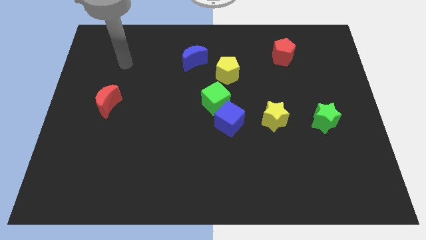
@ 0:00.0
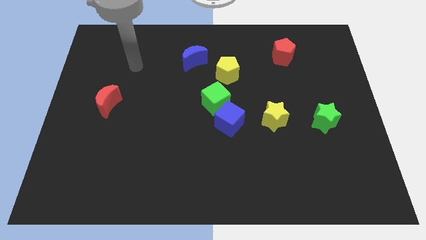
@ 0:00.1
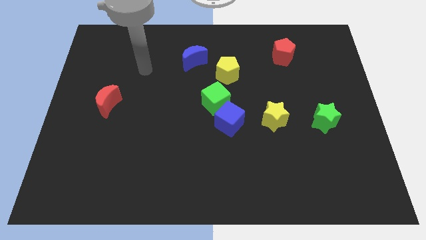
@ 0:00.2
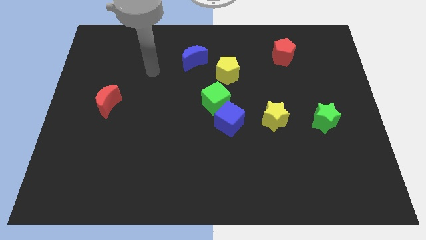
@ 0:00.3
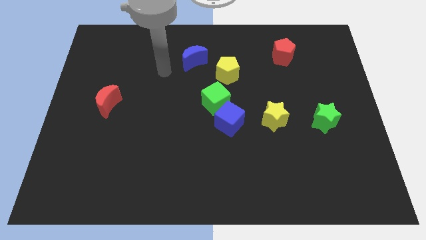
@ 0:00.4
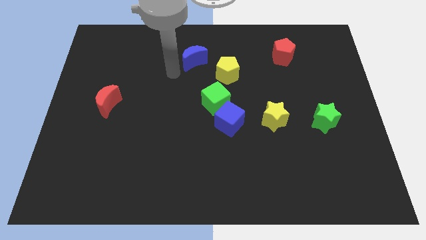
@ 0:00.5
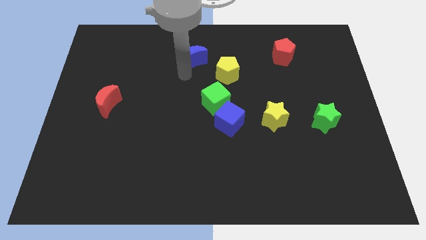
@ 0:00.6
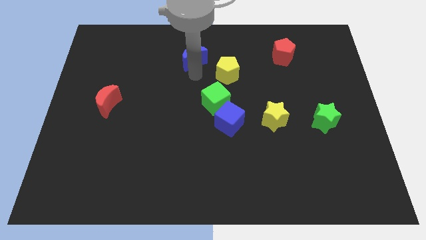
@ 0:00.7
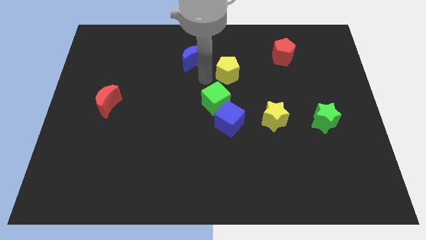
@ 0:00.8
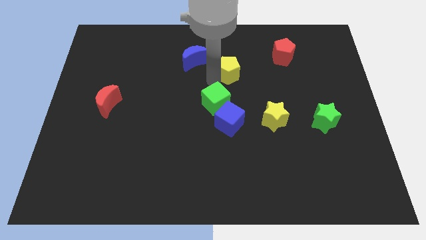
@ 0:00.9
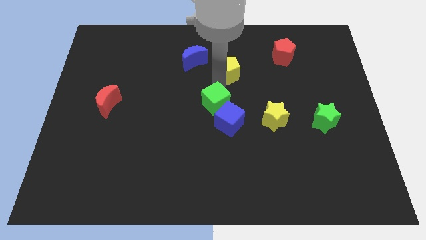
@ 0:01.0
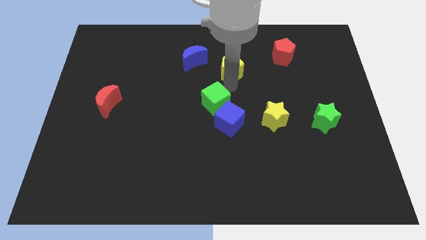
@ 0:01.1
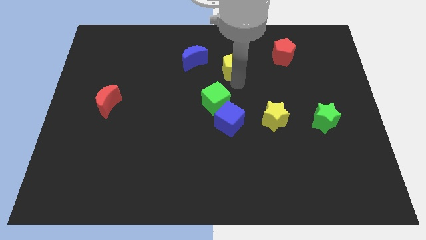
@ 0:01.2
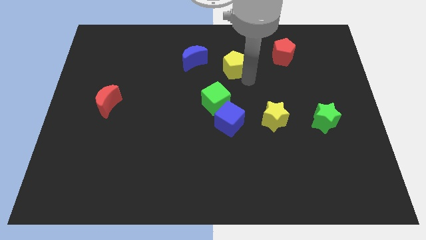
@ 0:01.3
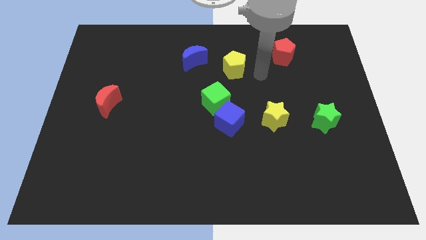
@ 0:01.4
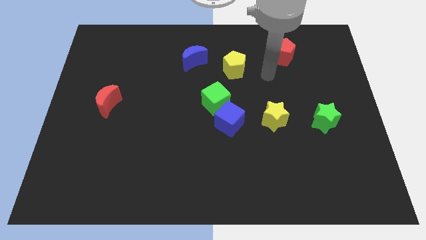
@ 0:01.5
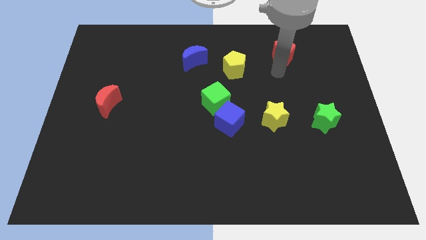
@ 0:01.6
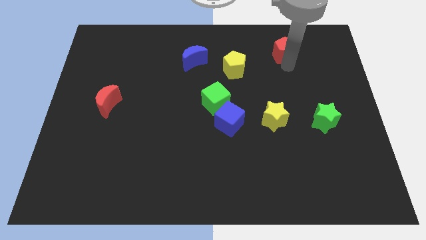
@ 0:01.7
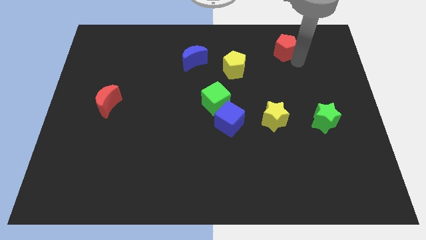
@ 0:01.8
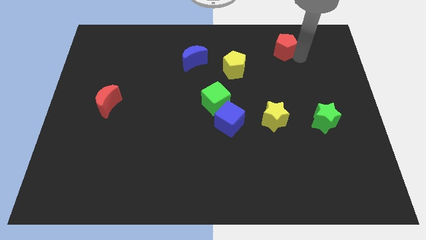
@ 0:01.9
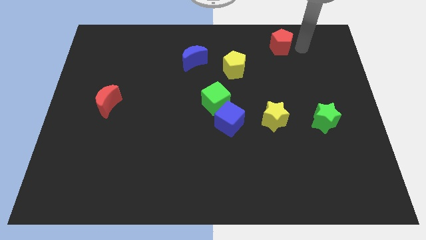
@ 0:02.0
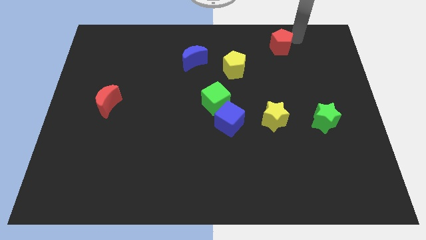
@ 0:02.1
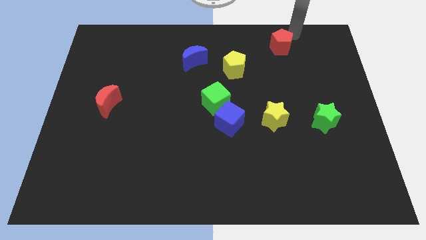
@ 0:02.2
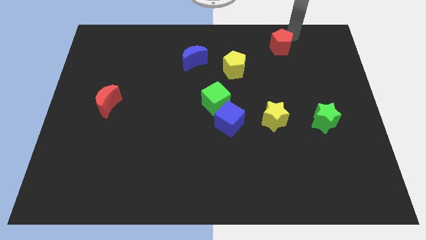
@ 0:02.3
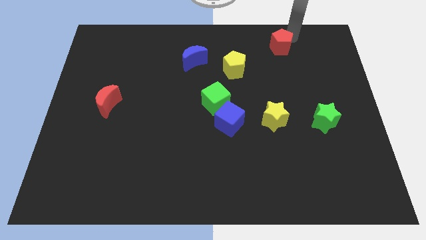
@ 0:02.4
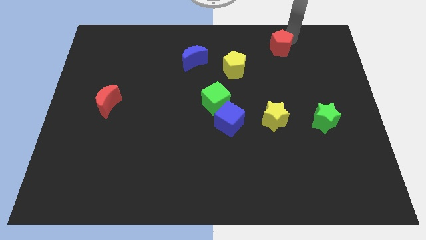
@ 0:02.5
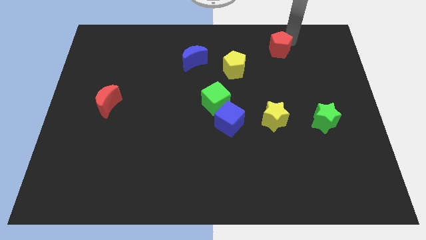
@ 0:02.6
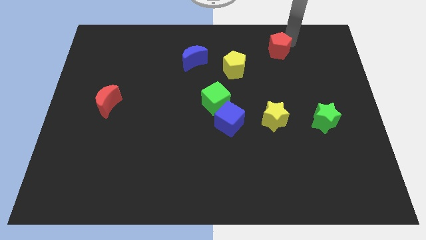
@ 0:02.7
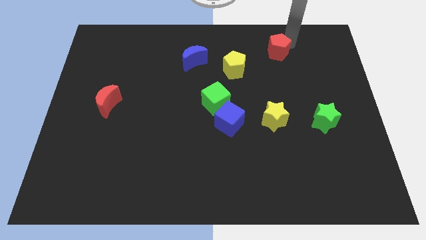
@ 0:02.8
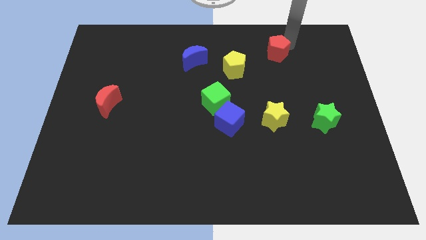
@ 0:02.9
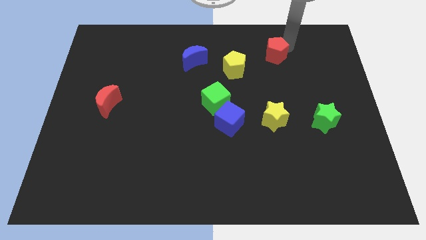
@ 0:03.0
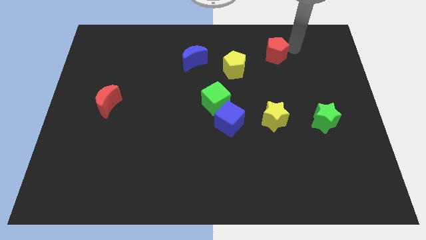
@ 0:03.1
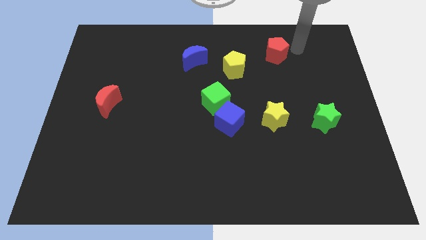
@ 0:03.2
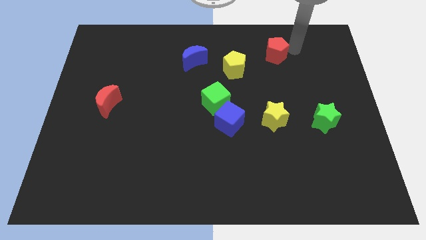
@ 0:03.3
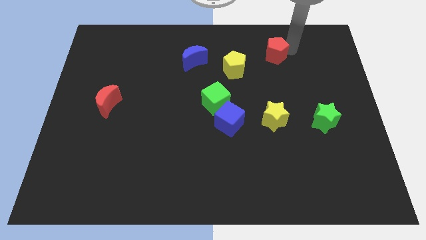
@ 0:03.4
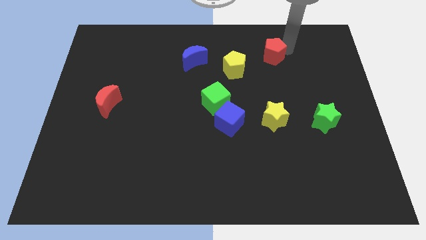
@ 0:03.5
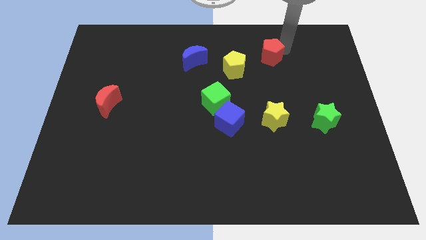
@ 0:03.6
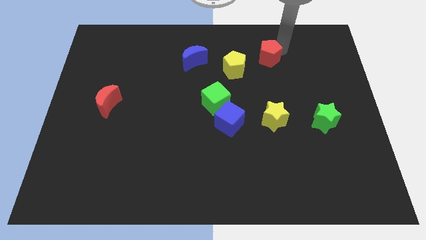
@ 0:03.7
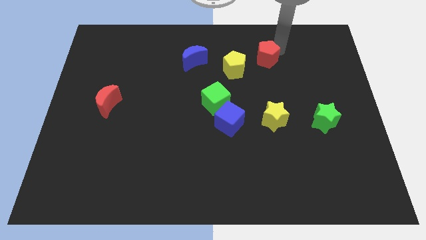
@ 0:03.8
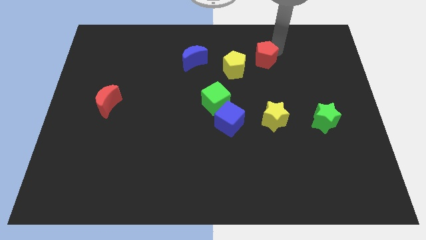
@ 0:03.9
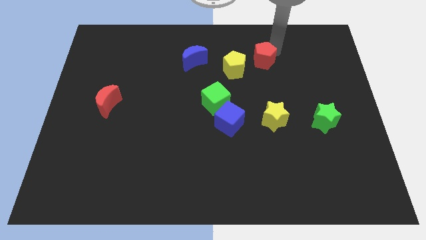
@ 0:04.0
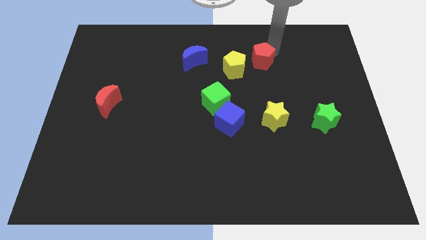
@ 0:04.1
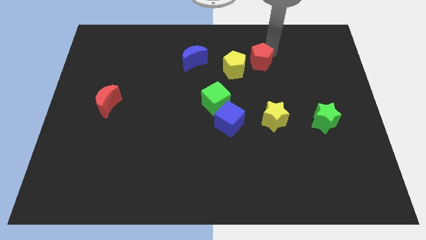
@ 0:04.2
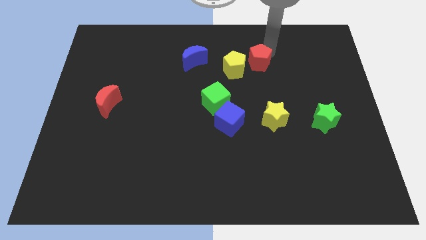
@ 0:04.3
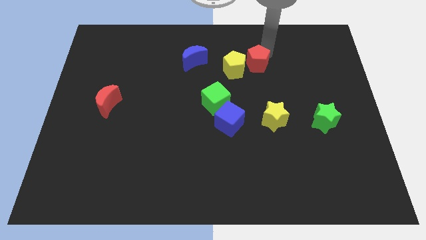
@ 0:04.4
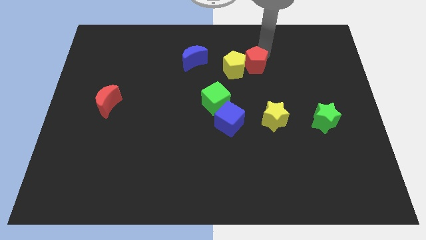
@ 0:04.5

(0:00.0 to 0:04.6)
slide the red pentagon a little left

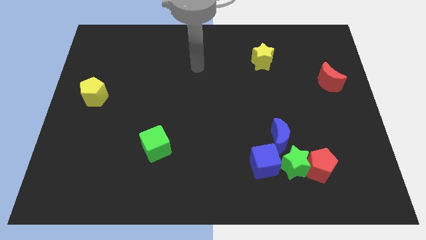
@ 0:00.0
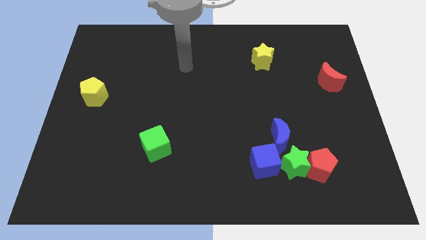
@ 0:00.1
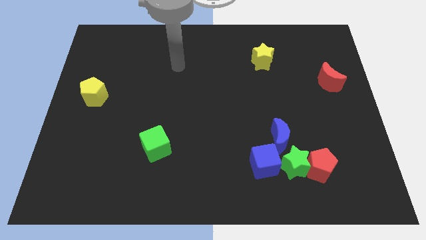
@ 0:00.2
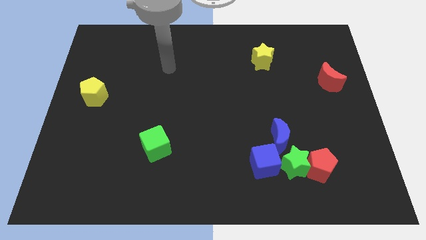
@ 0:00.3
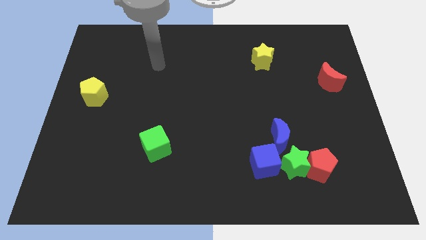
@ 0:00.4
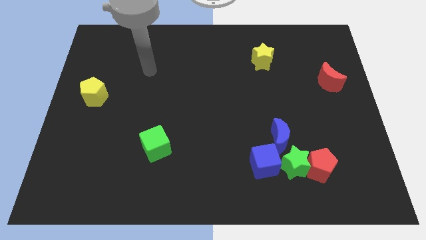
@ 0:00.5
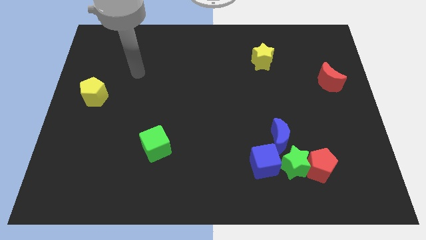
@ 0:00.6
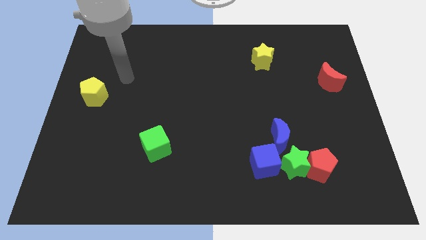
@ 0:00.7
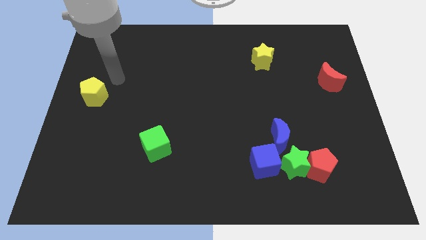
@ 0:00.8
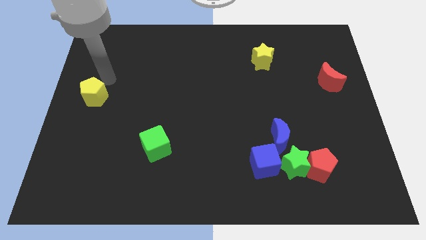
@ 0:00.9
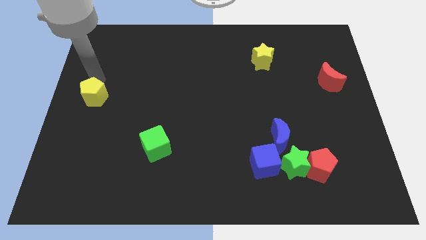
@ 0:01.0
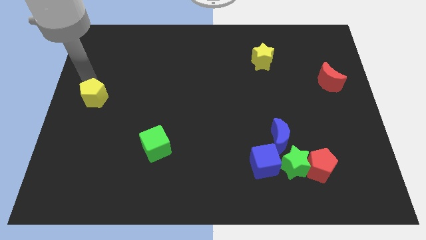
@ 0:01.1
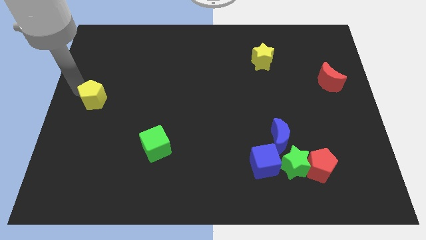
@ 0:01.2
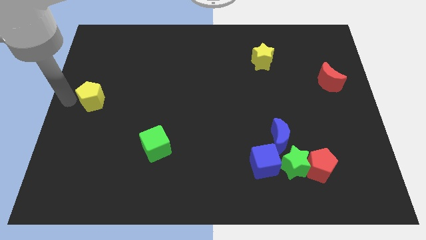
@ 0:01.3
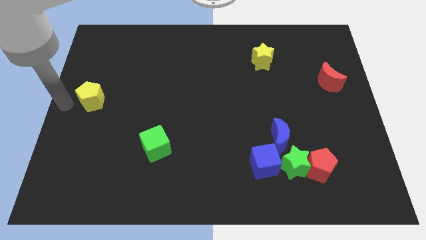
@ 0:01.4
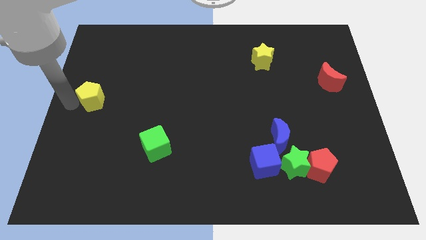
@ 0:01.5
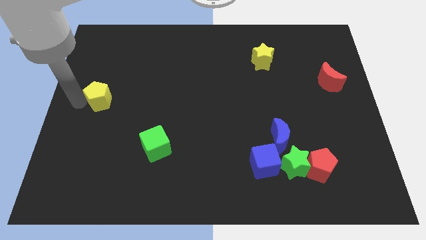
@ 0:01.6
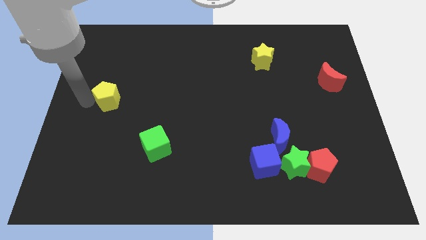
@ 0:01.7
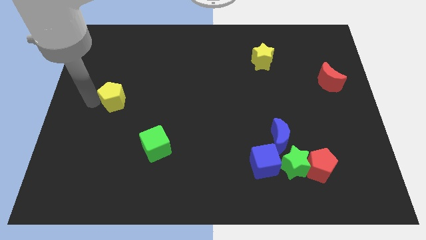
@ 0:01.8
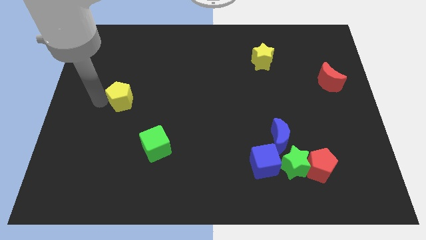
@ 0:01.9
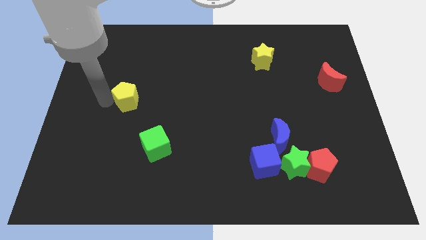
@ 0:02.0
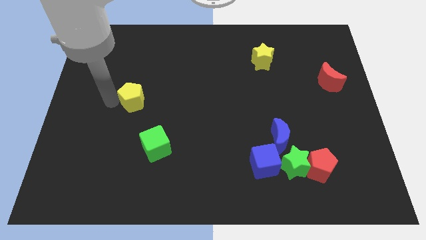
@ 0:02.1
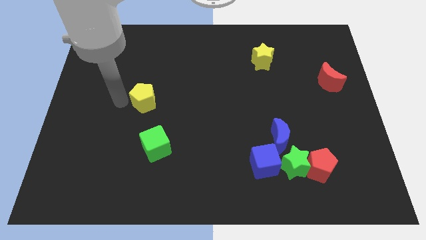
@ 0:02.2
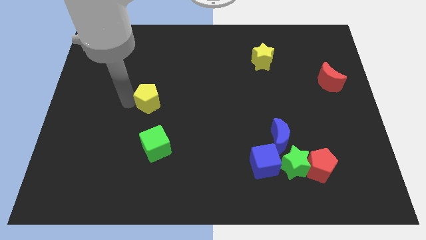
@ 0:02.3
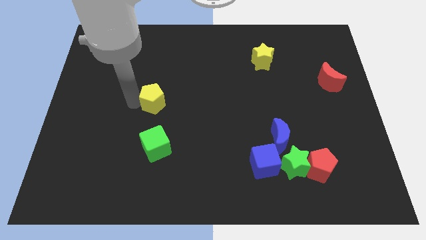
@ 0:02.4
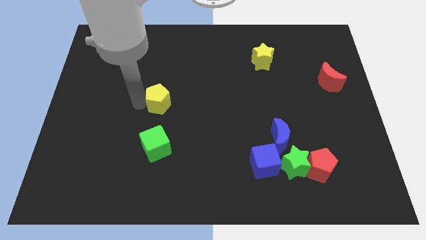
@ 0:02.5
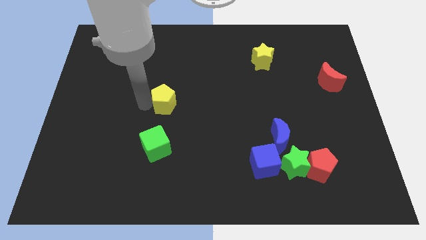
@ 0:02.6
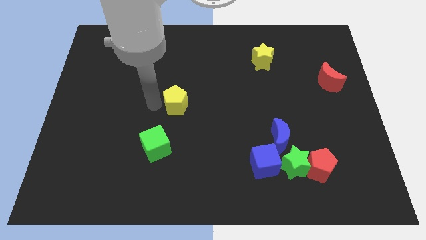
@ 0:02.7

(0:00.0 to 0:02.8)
move the yellow pentagon to the right

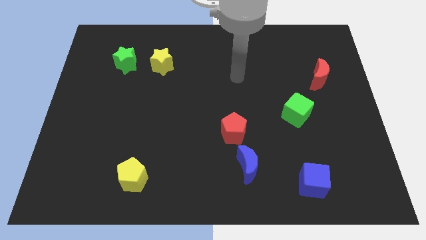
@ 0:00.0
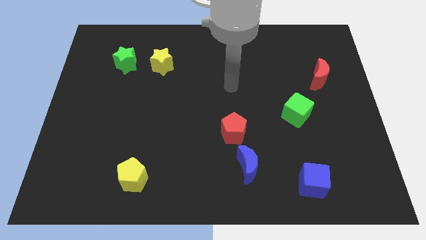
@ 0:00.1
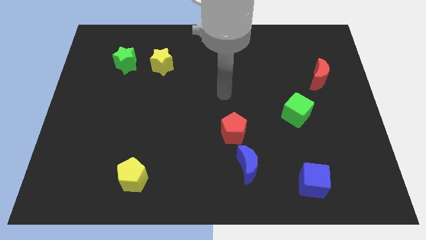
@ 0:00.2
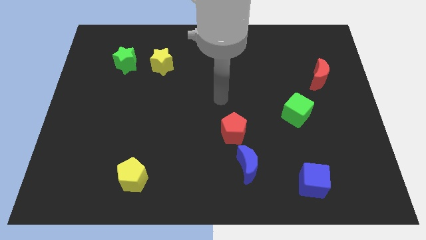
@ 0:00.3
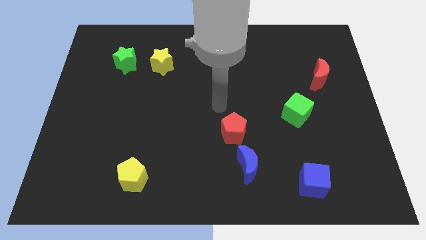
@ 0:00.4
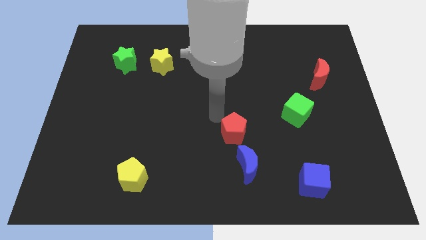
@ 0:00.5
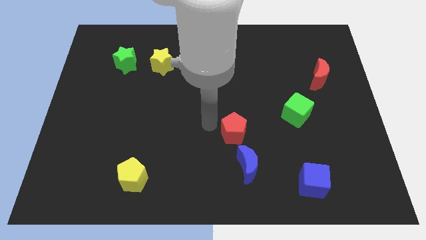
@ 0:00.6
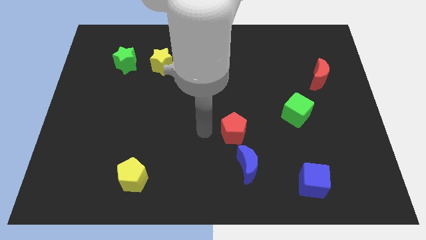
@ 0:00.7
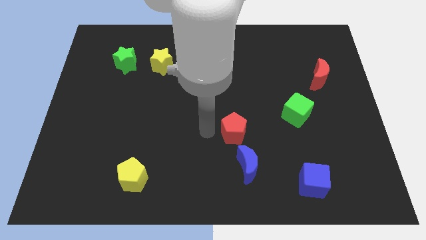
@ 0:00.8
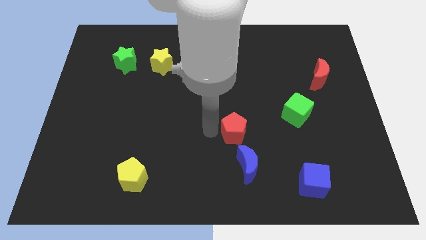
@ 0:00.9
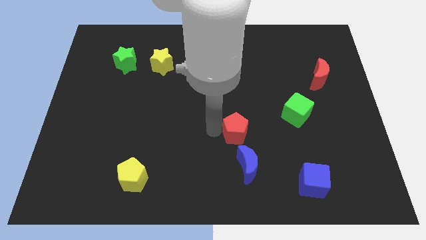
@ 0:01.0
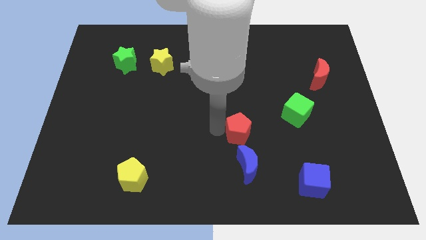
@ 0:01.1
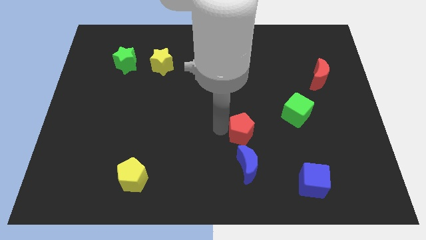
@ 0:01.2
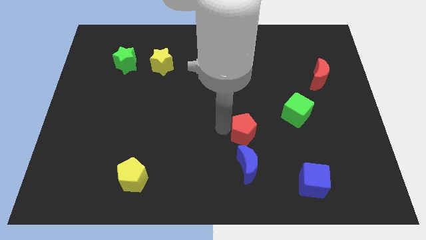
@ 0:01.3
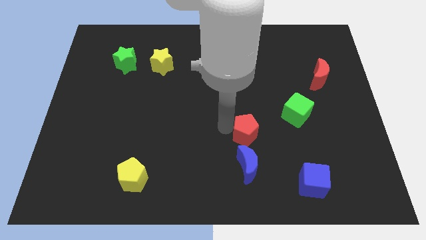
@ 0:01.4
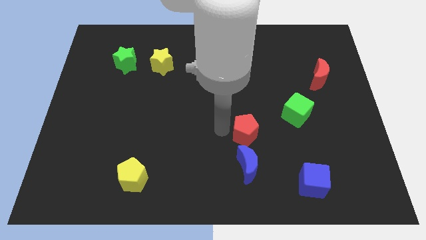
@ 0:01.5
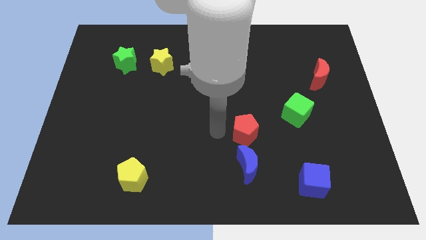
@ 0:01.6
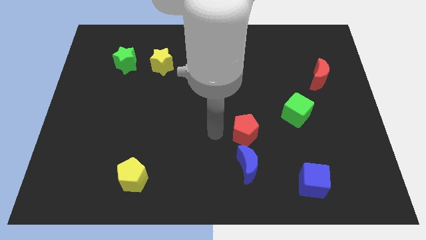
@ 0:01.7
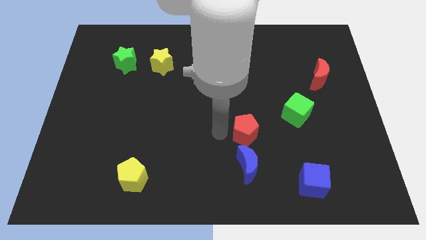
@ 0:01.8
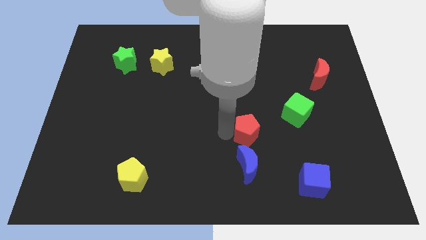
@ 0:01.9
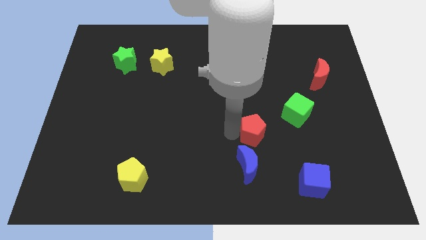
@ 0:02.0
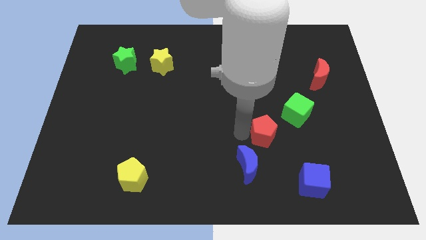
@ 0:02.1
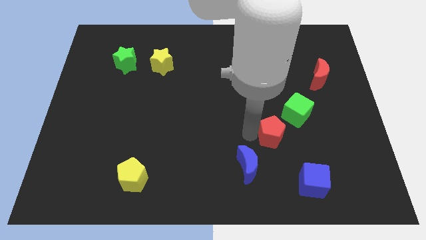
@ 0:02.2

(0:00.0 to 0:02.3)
slightly move the red pentagon right
